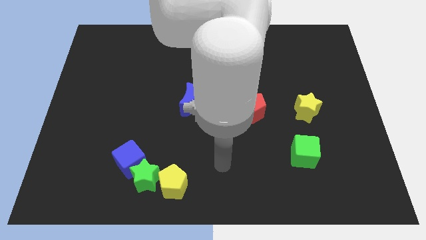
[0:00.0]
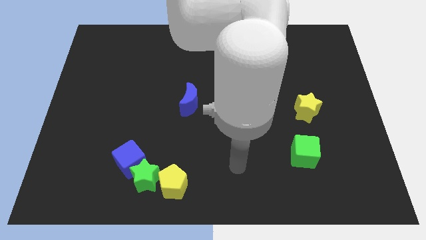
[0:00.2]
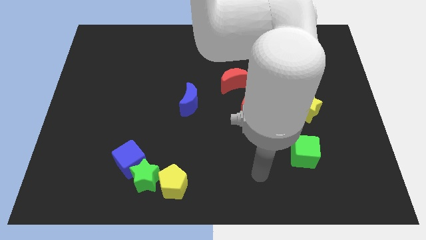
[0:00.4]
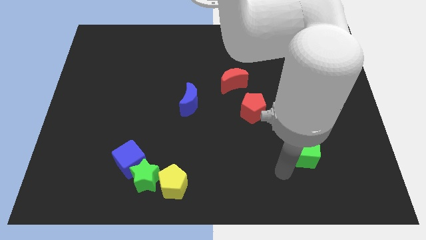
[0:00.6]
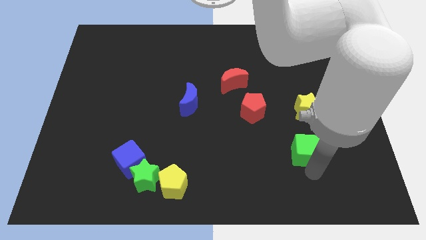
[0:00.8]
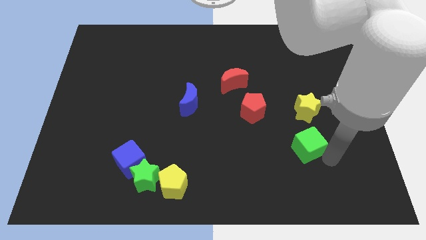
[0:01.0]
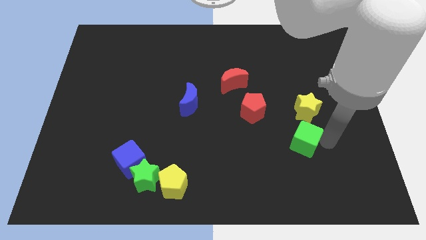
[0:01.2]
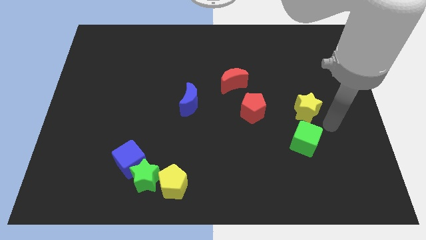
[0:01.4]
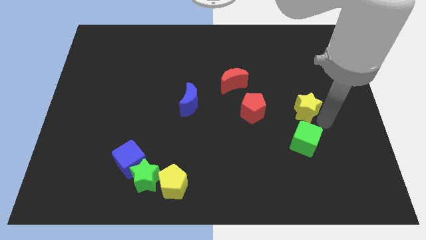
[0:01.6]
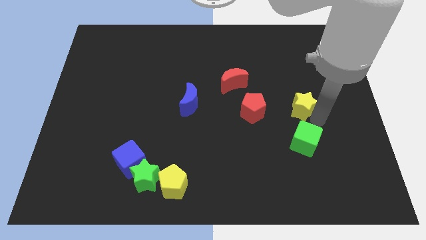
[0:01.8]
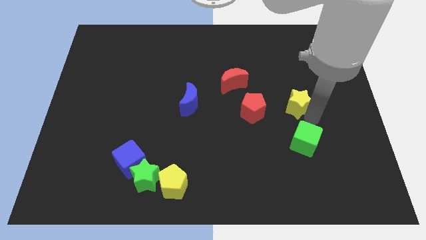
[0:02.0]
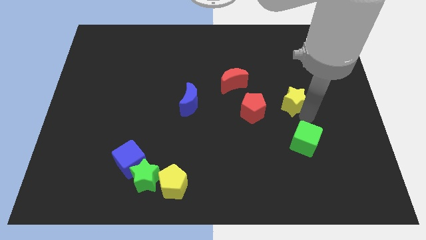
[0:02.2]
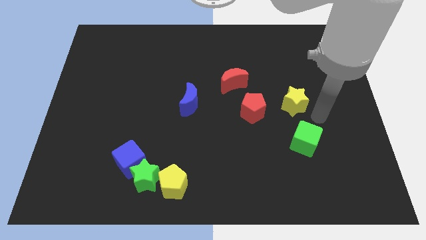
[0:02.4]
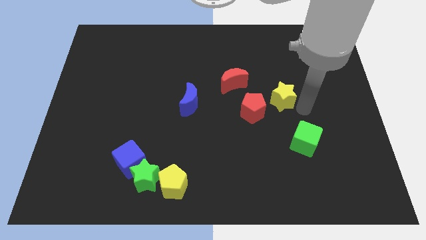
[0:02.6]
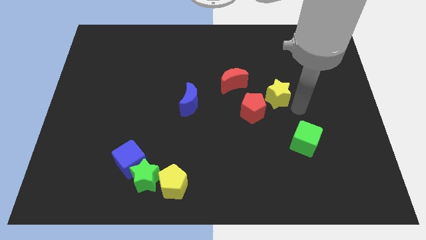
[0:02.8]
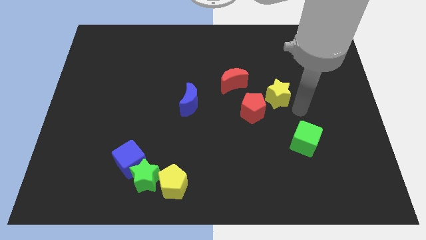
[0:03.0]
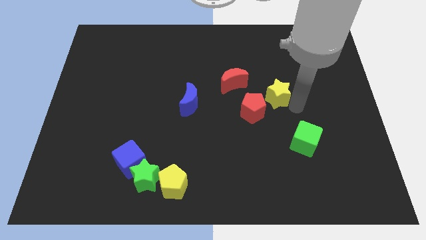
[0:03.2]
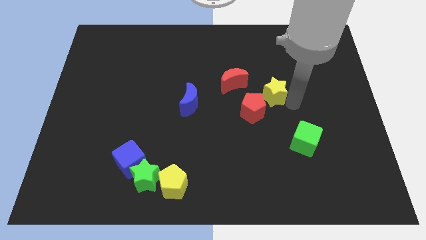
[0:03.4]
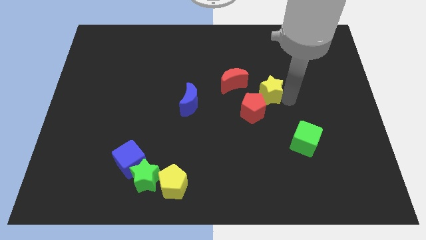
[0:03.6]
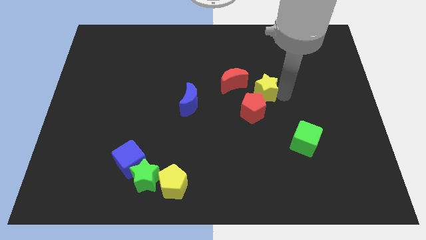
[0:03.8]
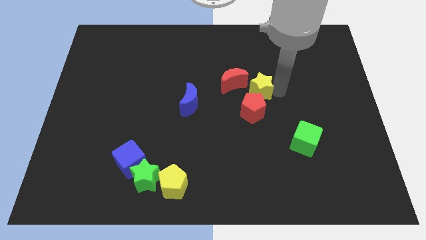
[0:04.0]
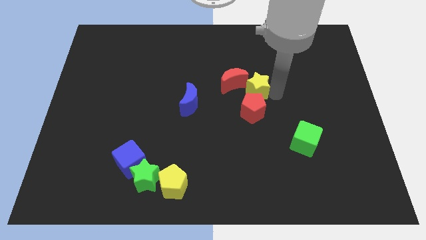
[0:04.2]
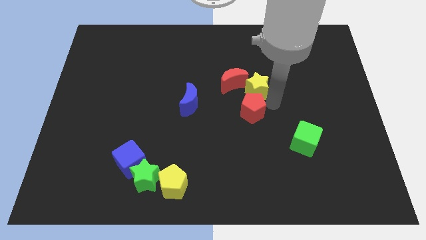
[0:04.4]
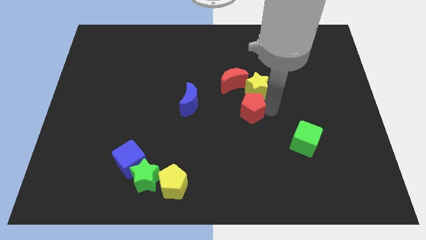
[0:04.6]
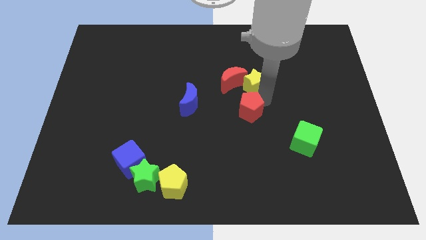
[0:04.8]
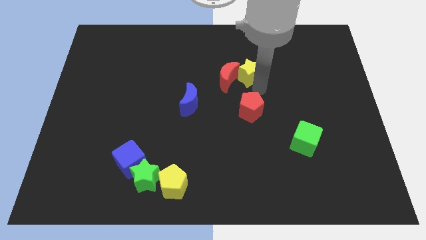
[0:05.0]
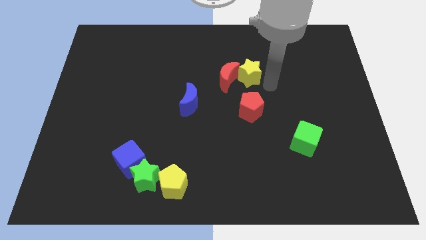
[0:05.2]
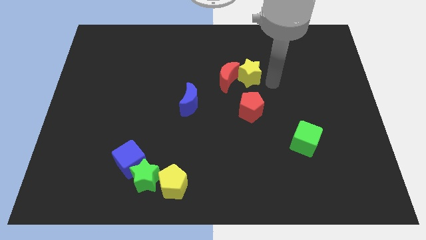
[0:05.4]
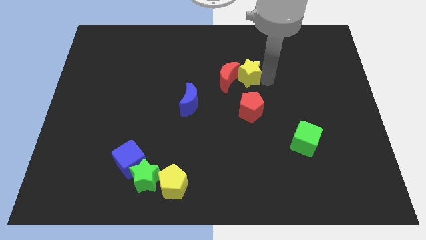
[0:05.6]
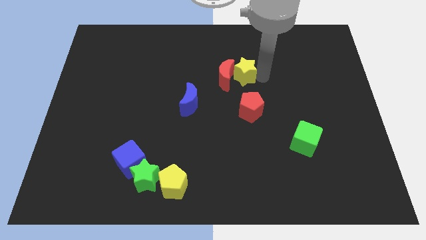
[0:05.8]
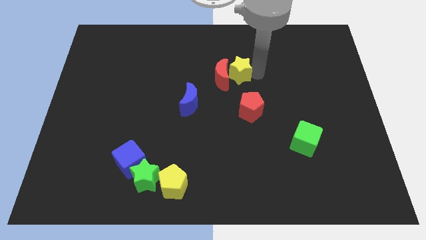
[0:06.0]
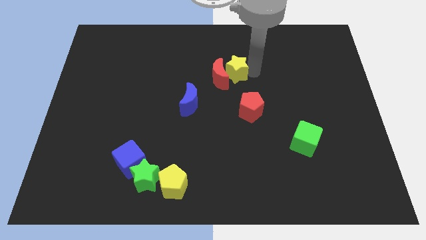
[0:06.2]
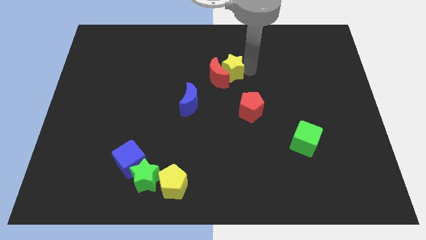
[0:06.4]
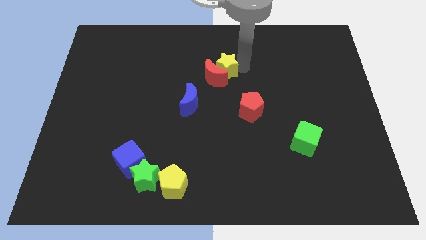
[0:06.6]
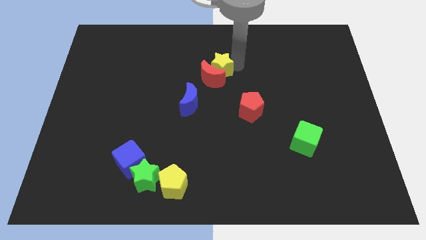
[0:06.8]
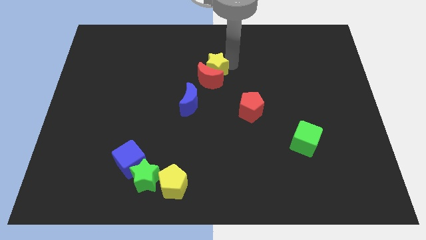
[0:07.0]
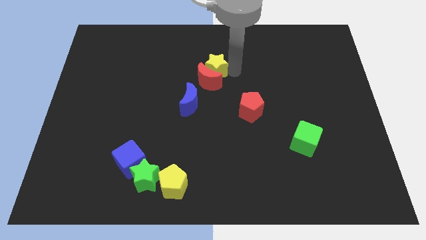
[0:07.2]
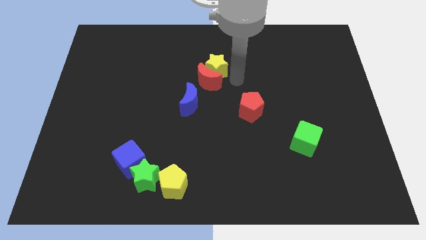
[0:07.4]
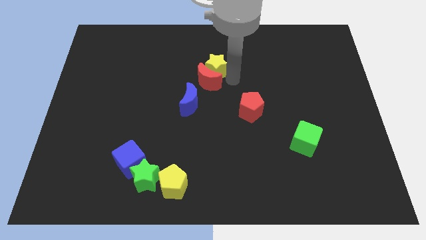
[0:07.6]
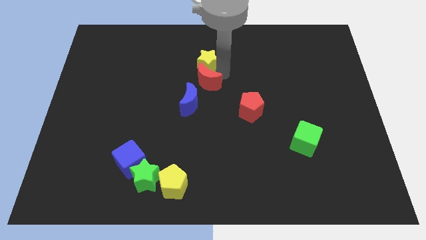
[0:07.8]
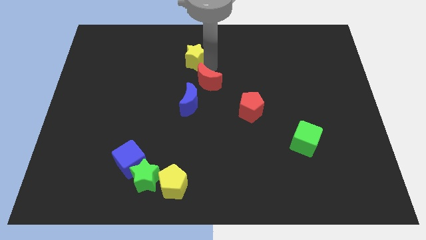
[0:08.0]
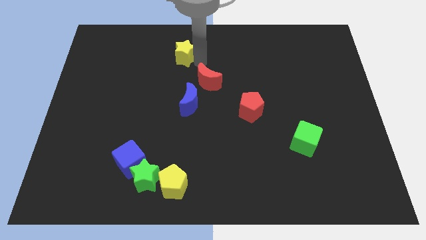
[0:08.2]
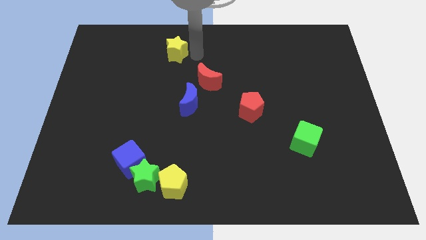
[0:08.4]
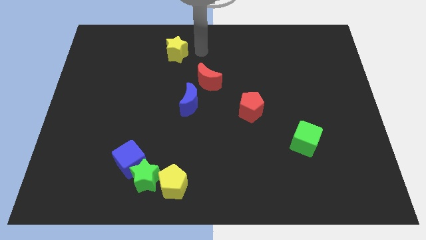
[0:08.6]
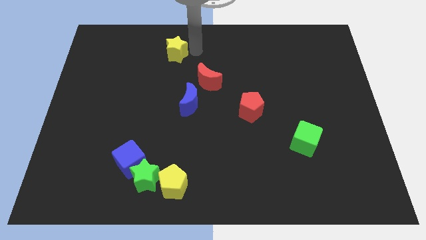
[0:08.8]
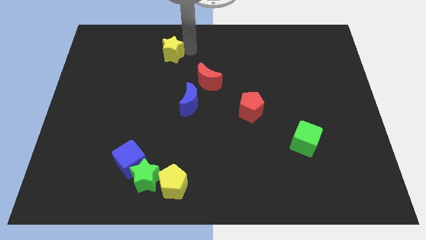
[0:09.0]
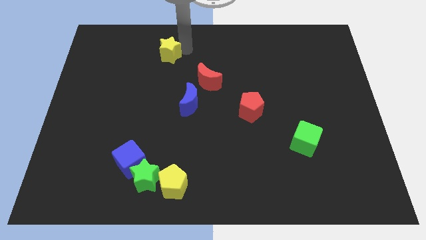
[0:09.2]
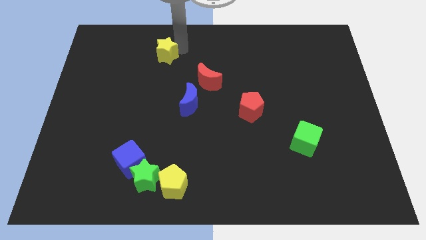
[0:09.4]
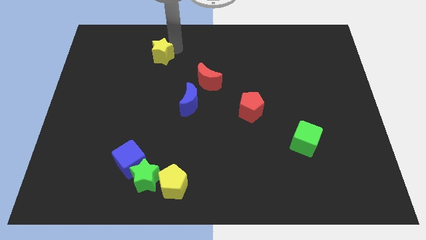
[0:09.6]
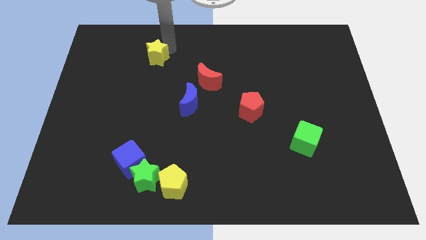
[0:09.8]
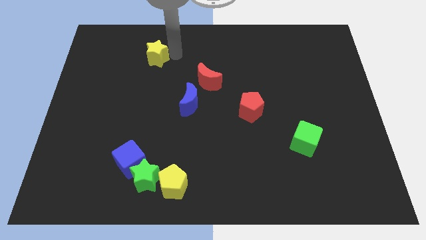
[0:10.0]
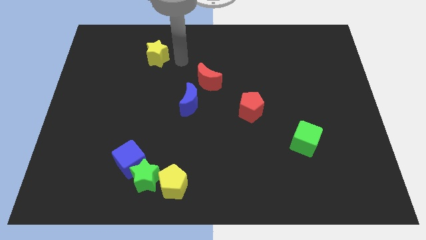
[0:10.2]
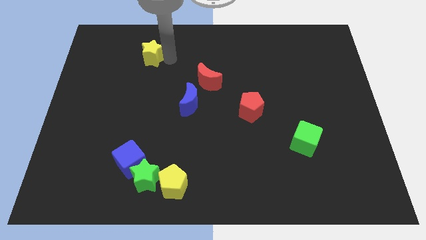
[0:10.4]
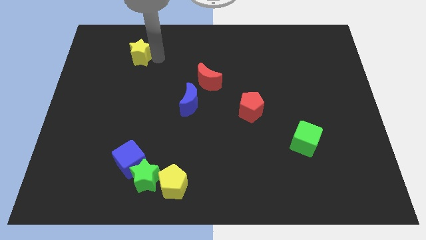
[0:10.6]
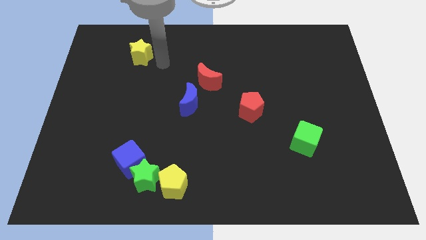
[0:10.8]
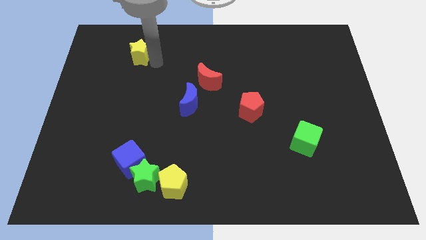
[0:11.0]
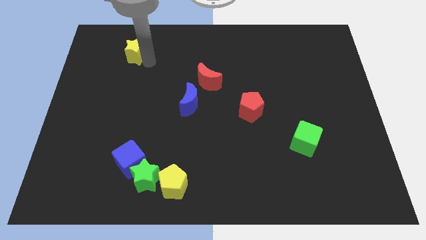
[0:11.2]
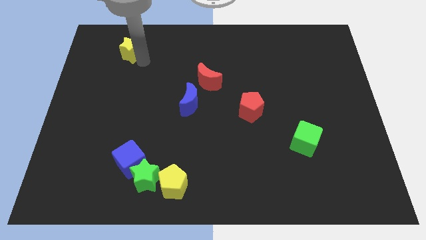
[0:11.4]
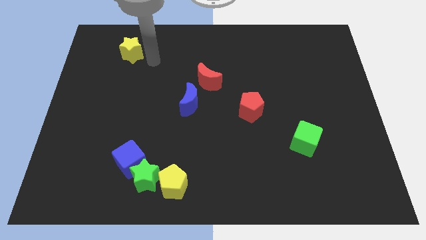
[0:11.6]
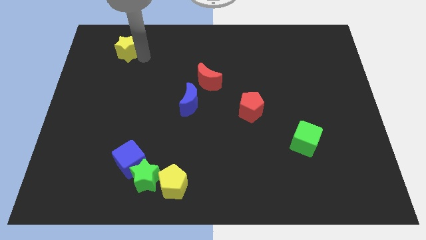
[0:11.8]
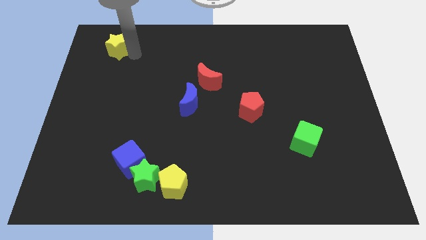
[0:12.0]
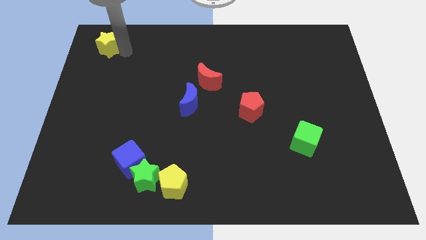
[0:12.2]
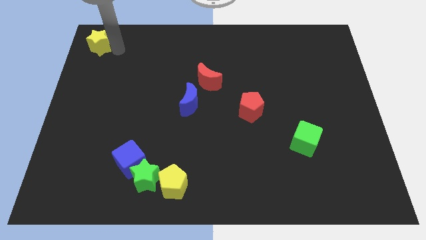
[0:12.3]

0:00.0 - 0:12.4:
put the yellow star to the top left of the board

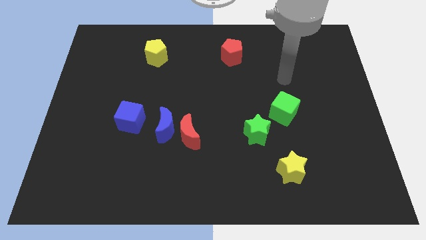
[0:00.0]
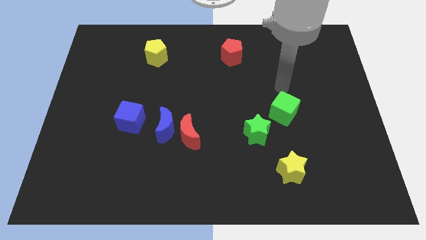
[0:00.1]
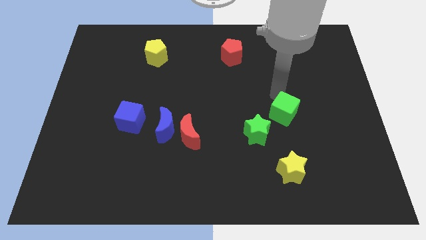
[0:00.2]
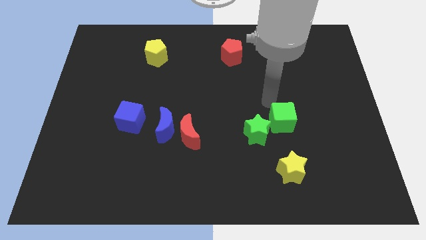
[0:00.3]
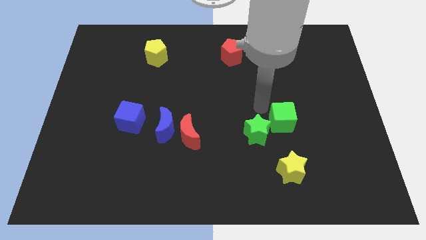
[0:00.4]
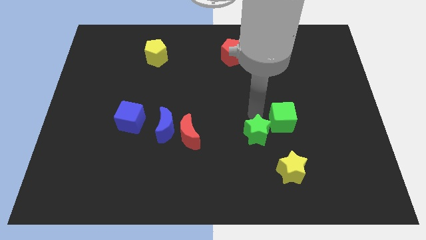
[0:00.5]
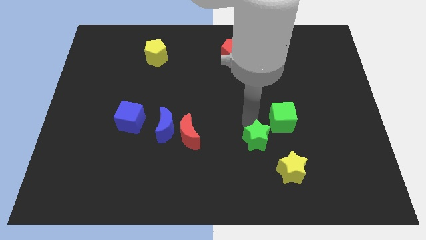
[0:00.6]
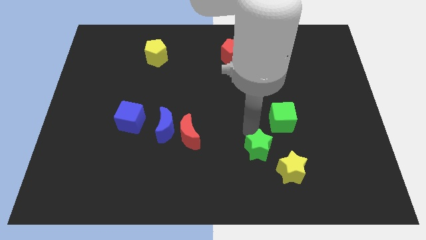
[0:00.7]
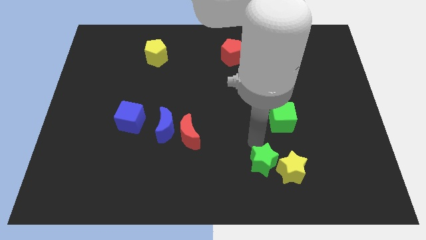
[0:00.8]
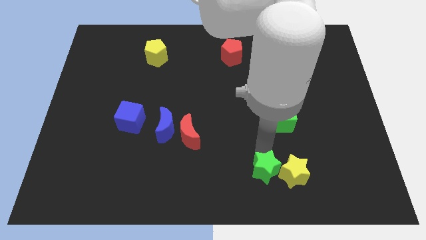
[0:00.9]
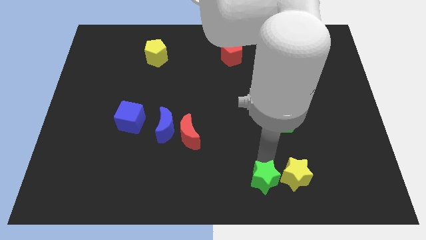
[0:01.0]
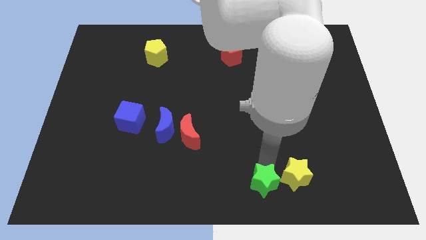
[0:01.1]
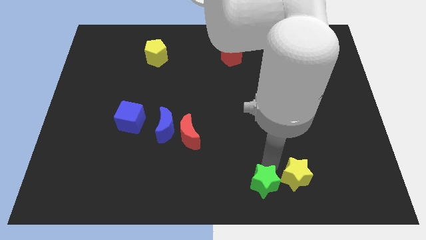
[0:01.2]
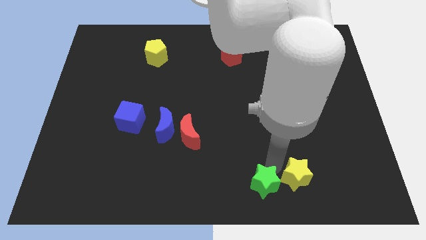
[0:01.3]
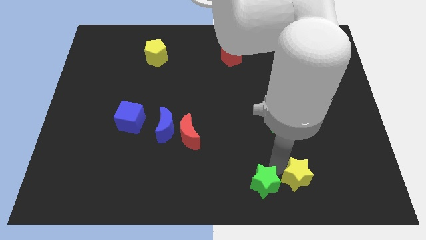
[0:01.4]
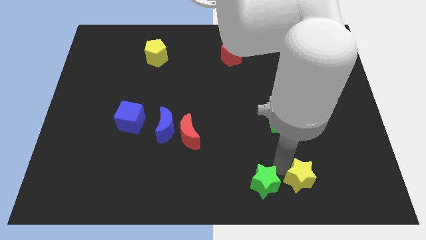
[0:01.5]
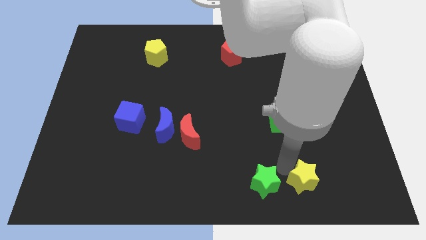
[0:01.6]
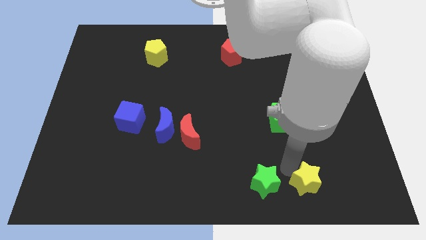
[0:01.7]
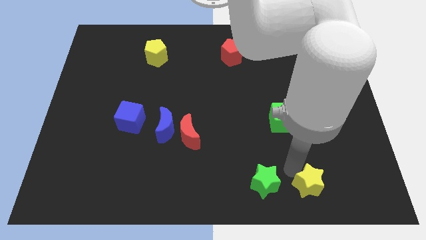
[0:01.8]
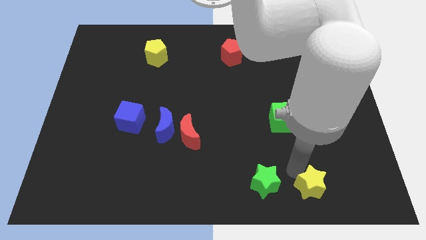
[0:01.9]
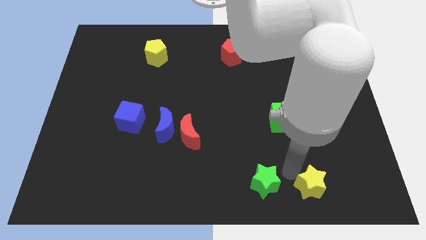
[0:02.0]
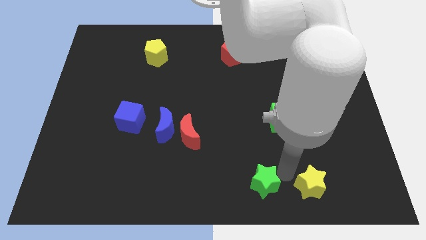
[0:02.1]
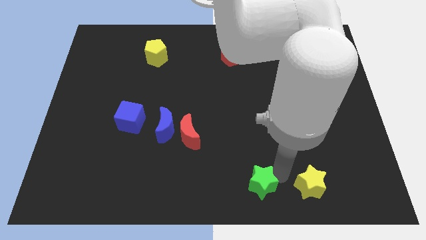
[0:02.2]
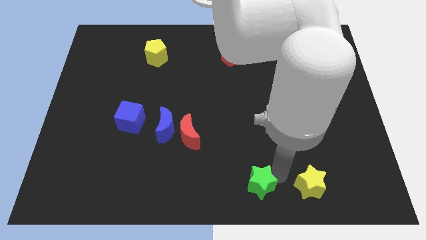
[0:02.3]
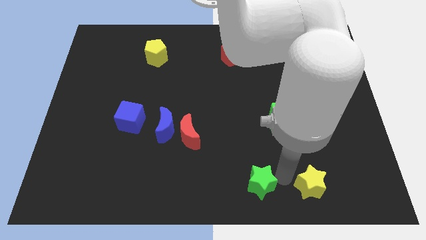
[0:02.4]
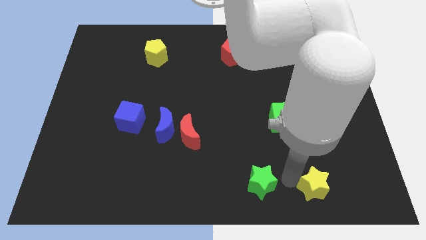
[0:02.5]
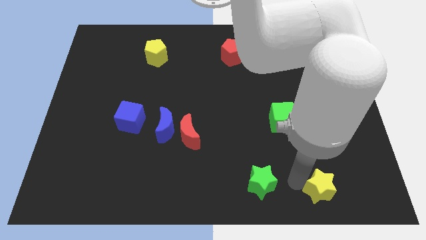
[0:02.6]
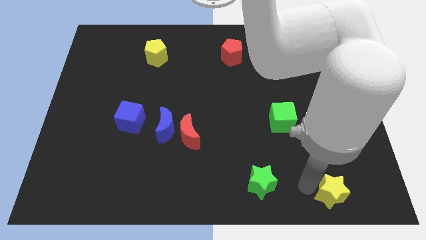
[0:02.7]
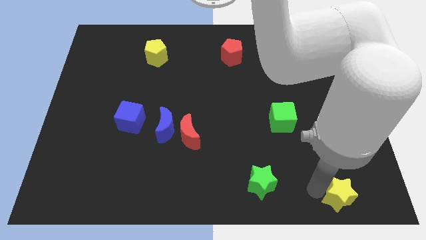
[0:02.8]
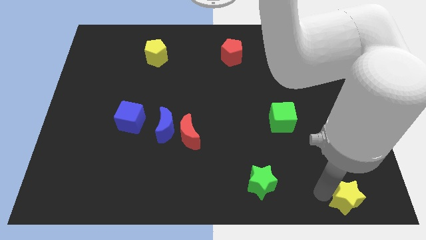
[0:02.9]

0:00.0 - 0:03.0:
push the yellow star to the bottom right of the board
